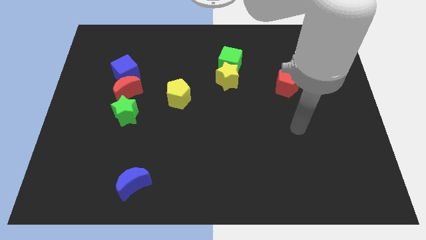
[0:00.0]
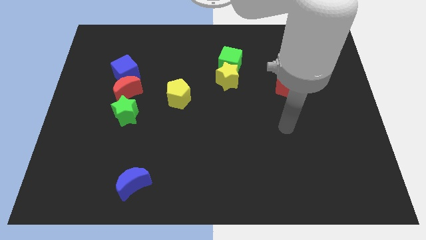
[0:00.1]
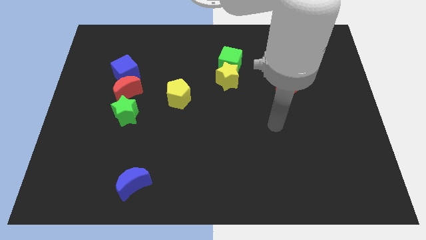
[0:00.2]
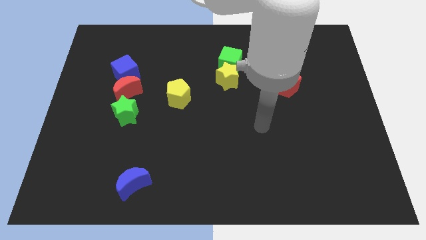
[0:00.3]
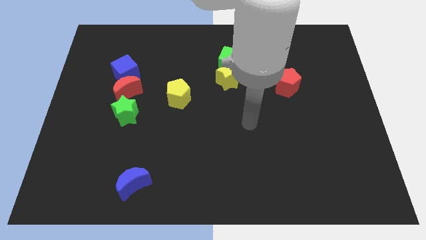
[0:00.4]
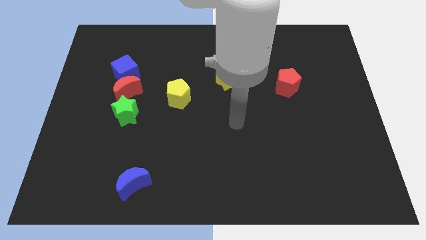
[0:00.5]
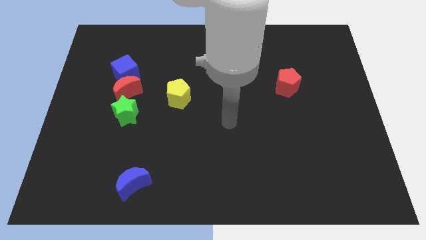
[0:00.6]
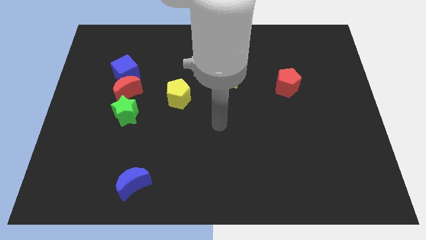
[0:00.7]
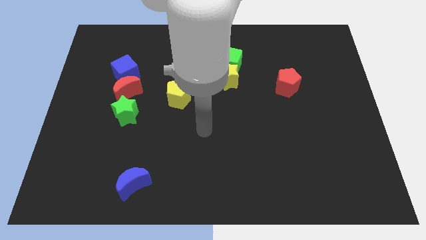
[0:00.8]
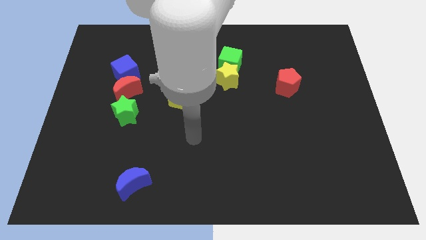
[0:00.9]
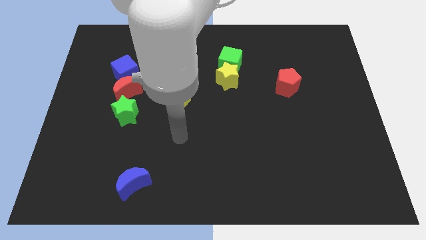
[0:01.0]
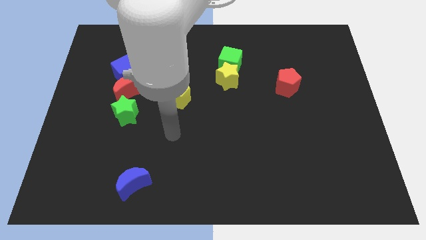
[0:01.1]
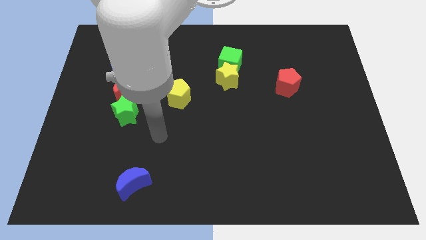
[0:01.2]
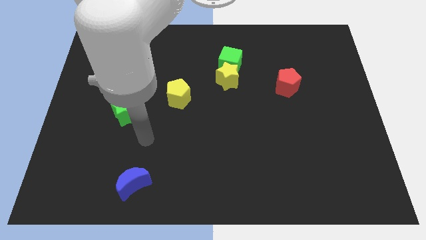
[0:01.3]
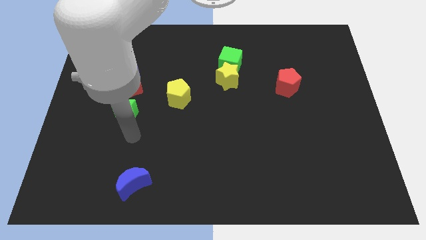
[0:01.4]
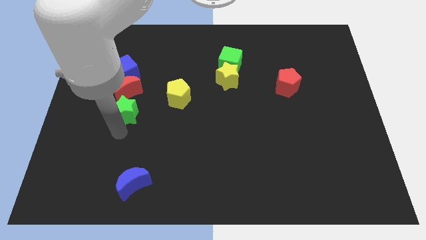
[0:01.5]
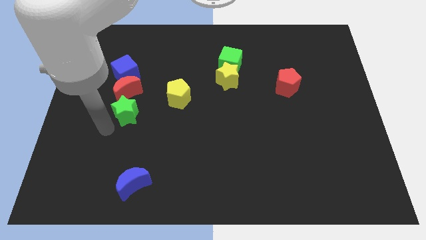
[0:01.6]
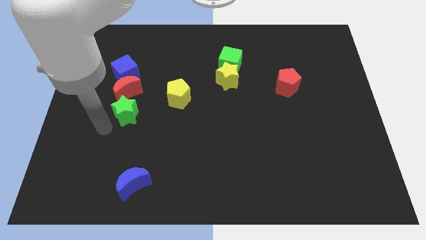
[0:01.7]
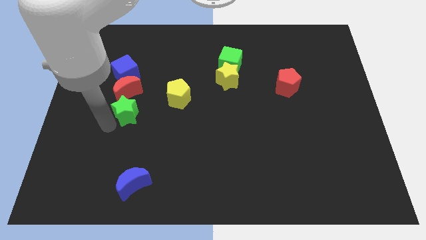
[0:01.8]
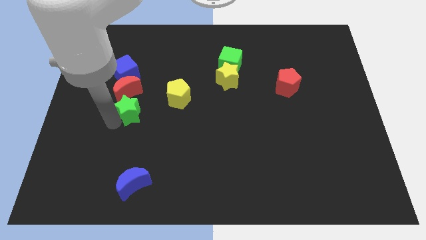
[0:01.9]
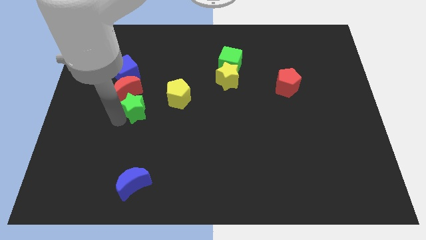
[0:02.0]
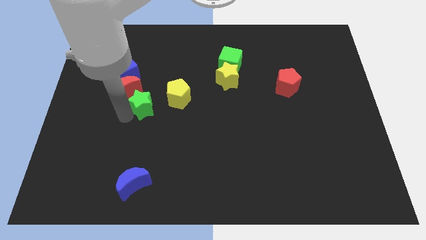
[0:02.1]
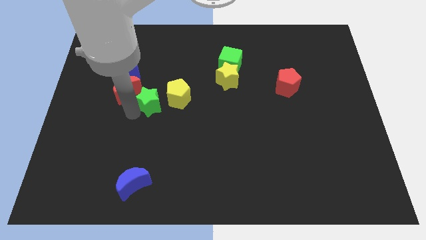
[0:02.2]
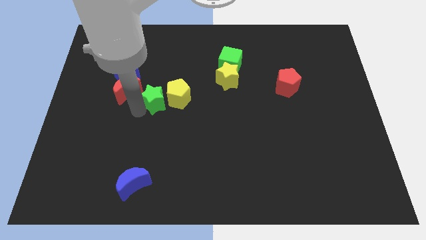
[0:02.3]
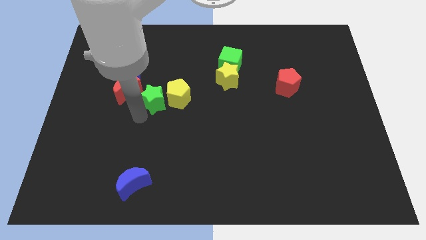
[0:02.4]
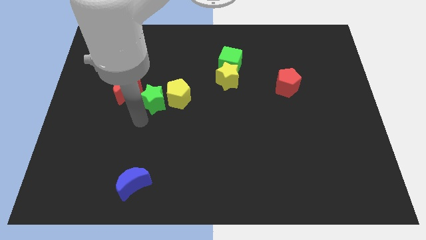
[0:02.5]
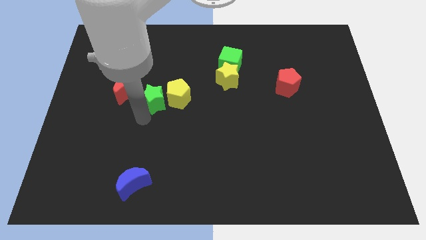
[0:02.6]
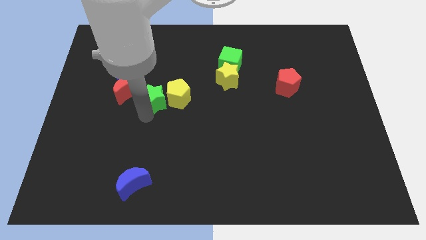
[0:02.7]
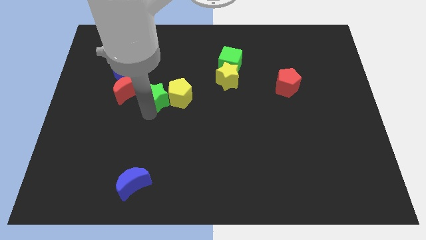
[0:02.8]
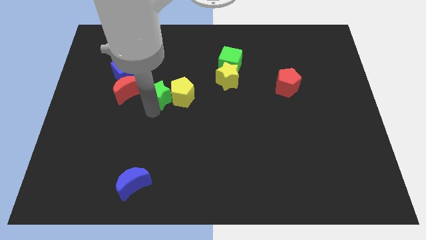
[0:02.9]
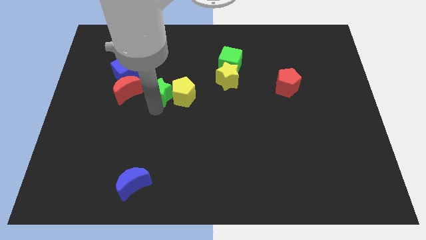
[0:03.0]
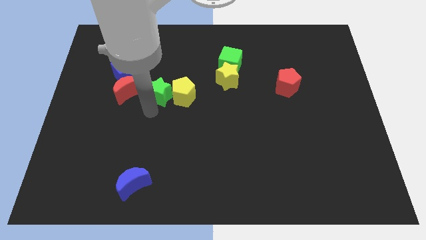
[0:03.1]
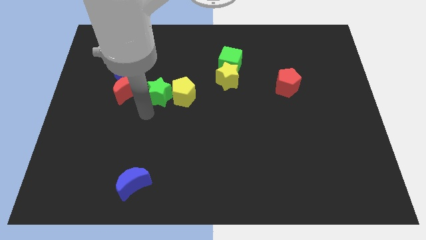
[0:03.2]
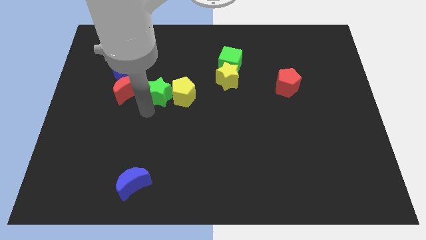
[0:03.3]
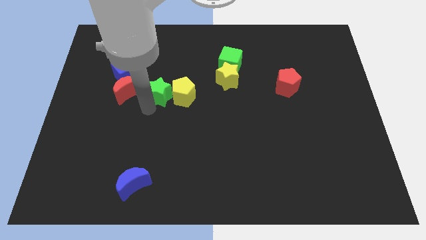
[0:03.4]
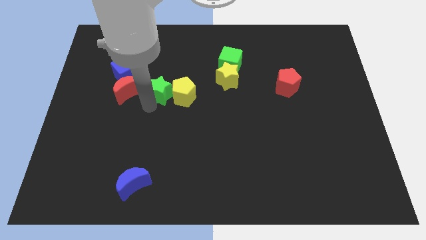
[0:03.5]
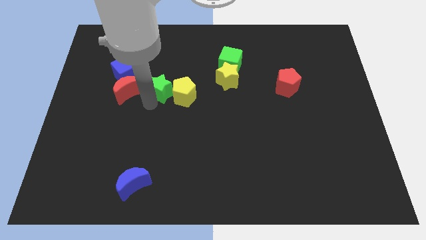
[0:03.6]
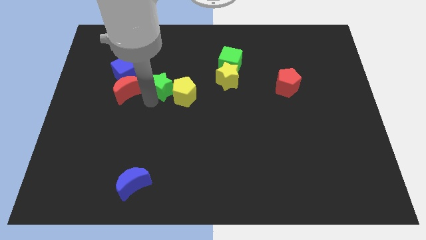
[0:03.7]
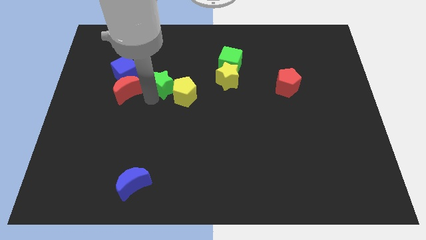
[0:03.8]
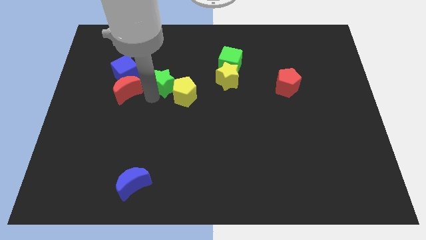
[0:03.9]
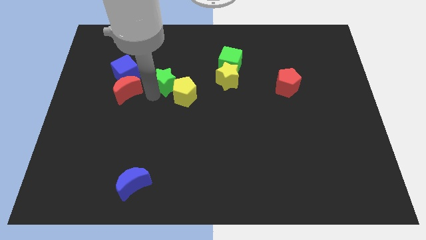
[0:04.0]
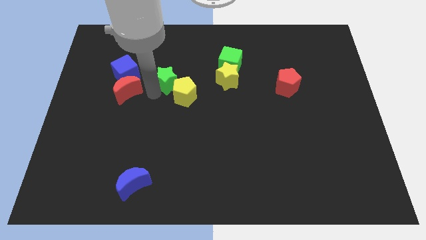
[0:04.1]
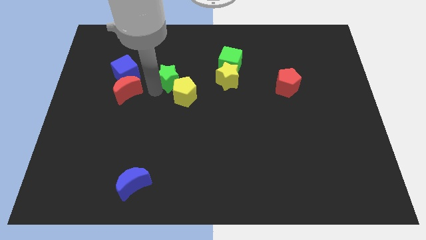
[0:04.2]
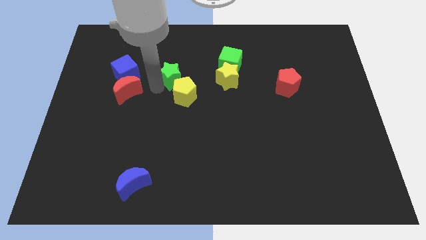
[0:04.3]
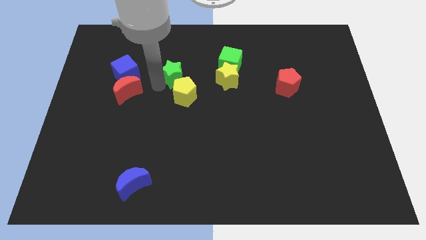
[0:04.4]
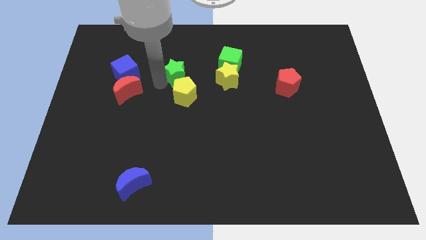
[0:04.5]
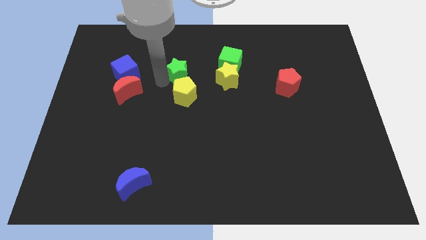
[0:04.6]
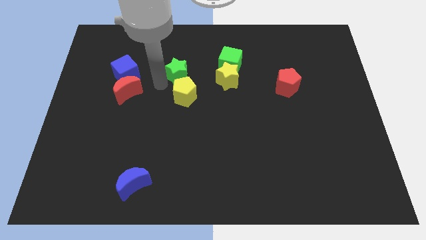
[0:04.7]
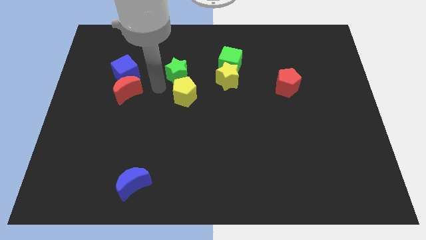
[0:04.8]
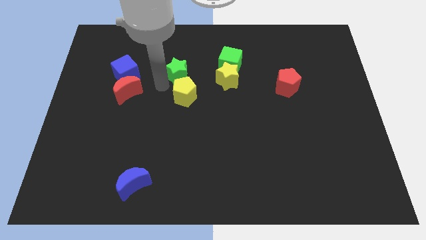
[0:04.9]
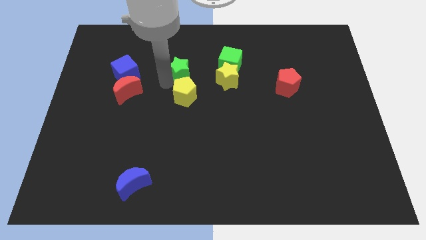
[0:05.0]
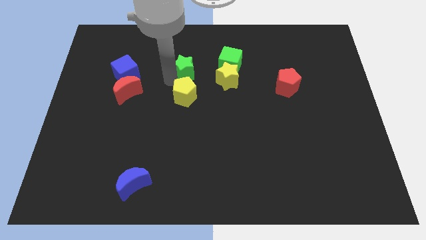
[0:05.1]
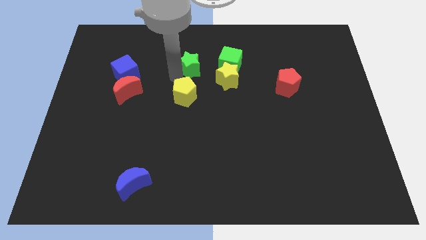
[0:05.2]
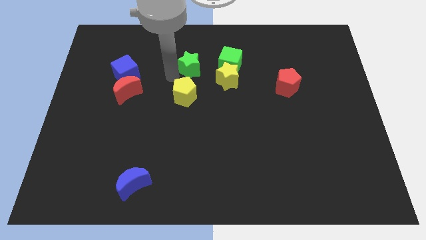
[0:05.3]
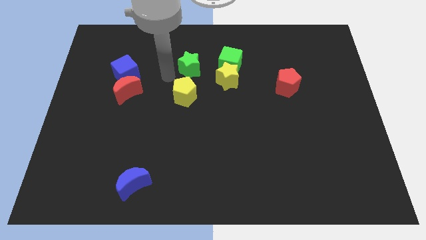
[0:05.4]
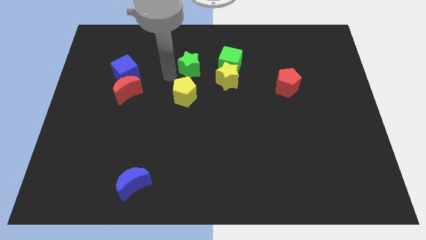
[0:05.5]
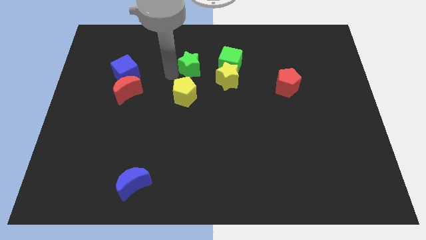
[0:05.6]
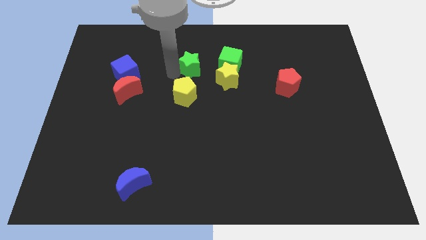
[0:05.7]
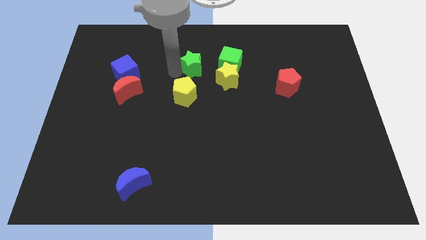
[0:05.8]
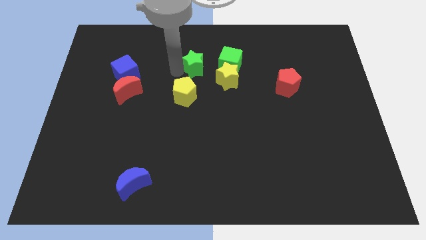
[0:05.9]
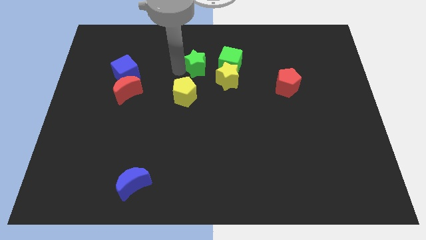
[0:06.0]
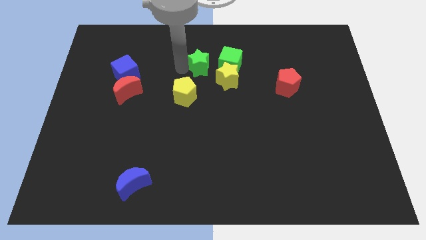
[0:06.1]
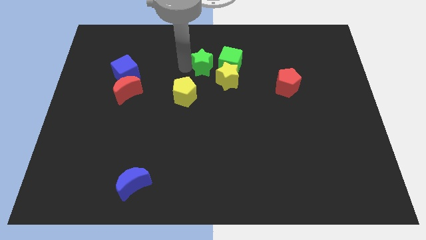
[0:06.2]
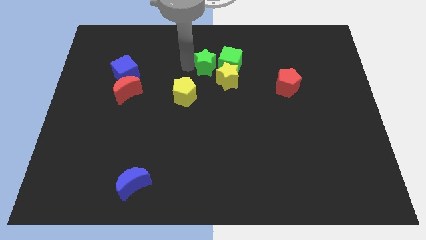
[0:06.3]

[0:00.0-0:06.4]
push the green star close to the green cube
